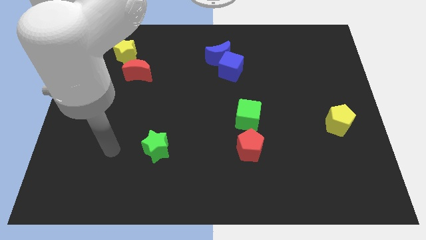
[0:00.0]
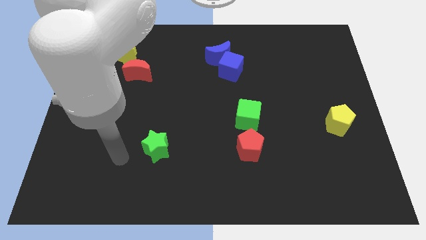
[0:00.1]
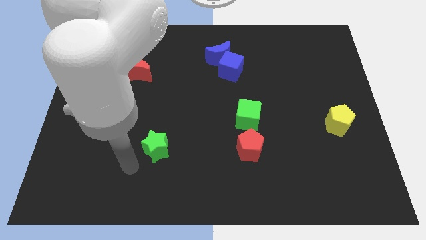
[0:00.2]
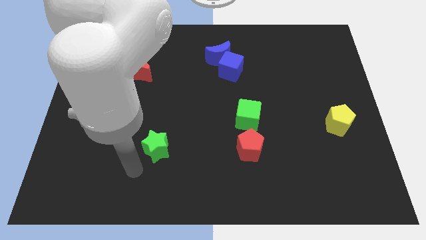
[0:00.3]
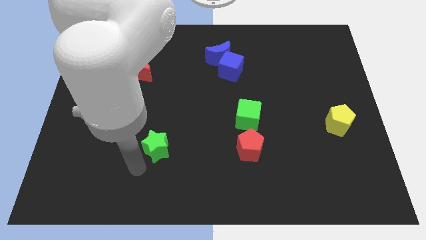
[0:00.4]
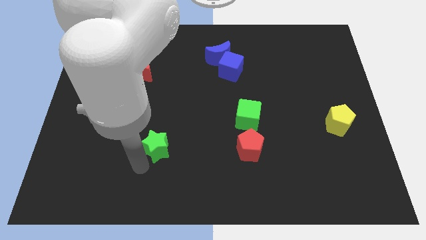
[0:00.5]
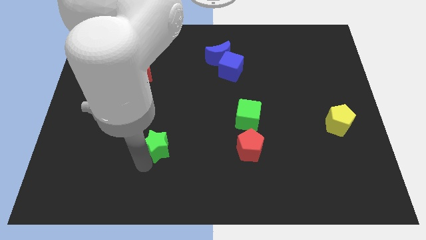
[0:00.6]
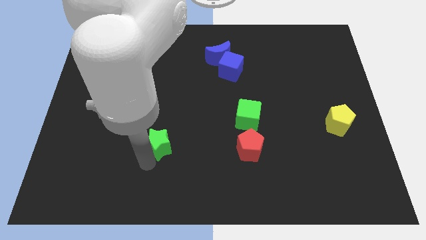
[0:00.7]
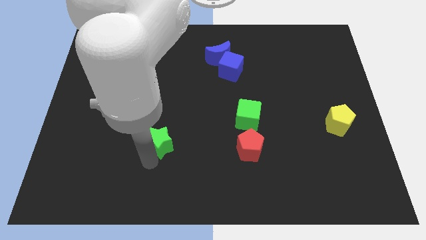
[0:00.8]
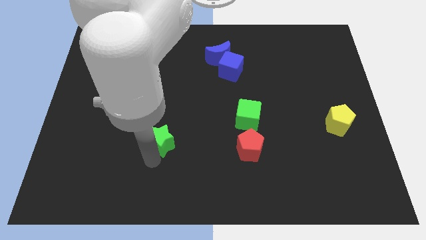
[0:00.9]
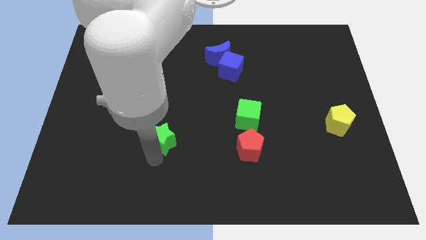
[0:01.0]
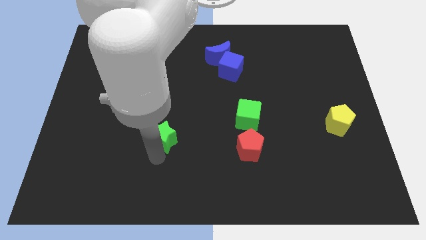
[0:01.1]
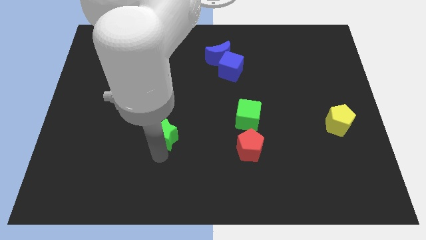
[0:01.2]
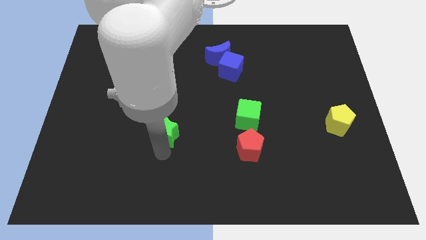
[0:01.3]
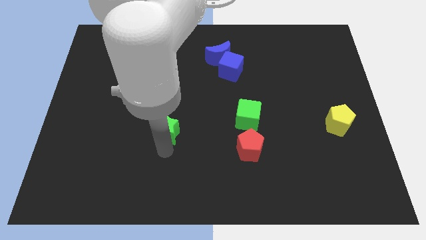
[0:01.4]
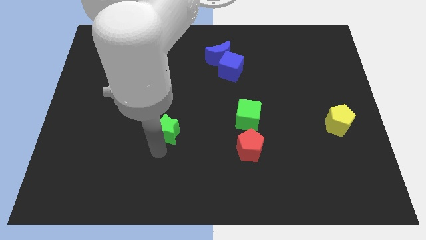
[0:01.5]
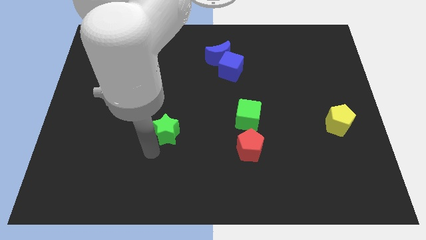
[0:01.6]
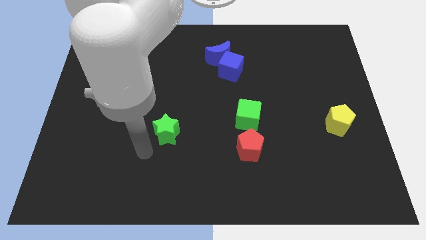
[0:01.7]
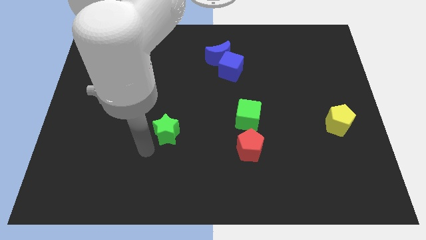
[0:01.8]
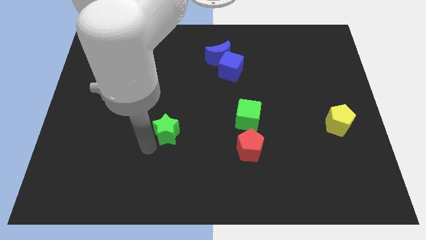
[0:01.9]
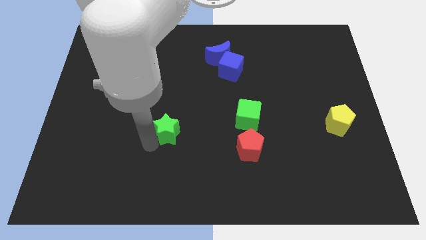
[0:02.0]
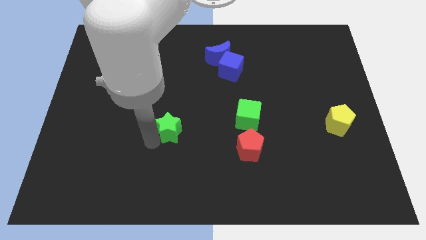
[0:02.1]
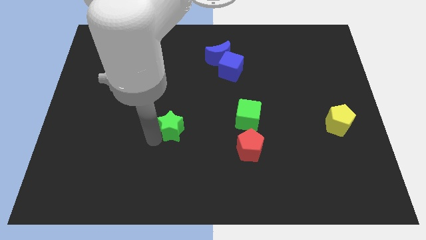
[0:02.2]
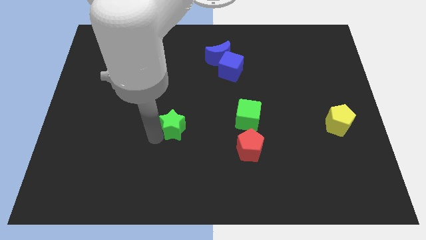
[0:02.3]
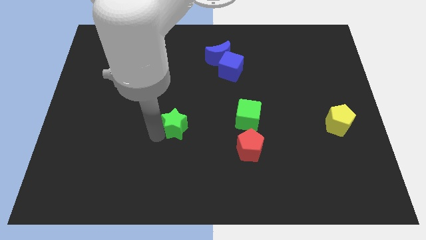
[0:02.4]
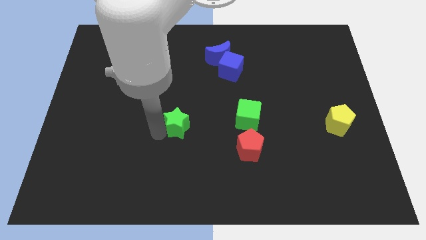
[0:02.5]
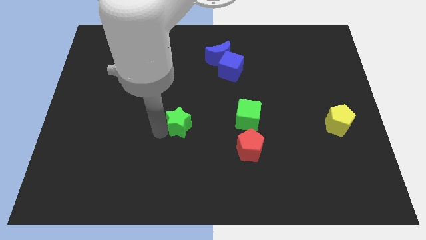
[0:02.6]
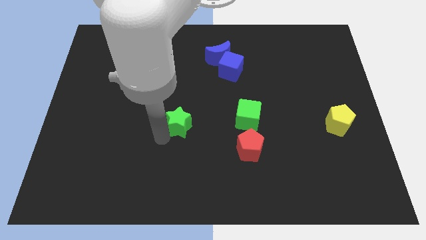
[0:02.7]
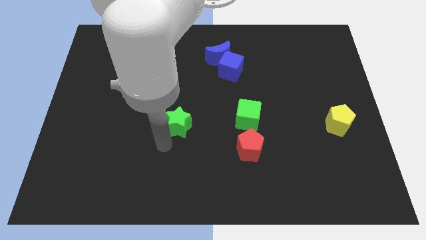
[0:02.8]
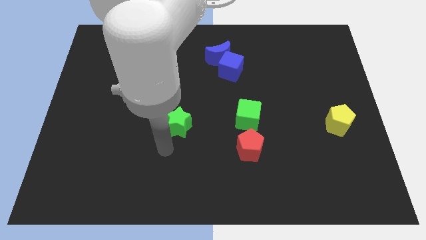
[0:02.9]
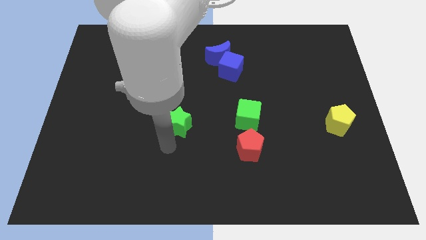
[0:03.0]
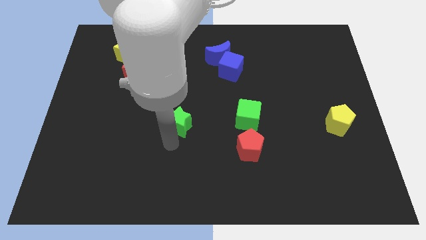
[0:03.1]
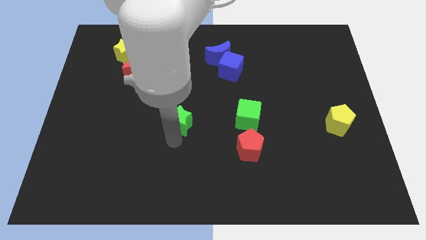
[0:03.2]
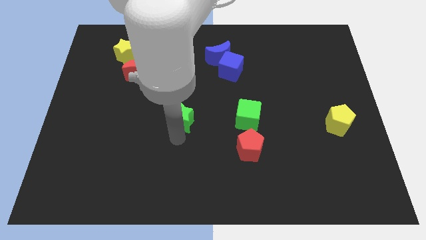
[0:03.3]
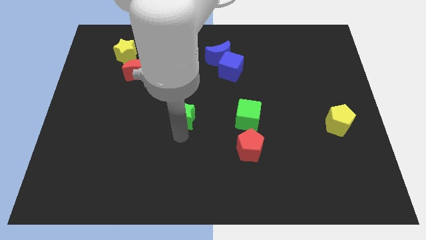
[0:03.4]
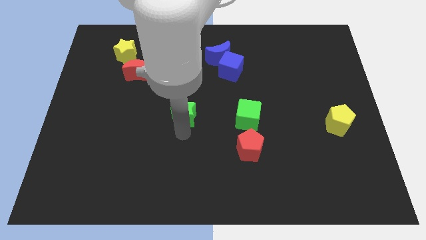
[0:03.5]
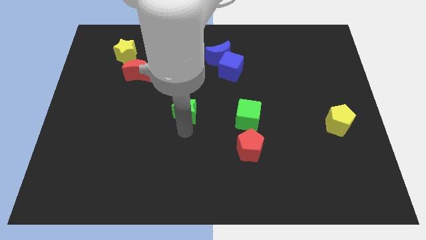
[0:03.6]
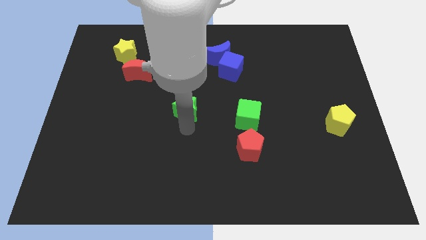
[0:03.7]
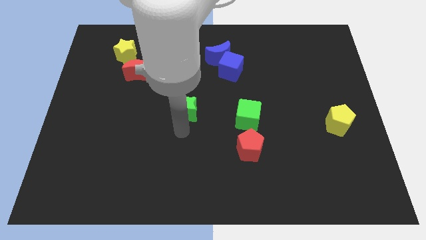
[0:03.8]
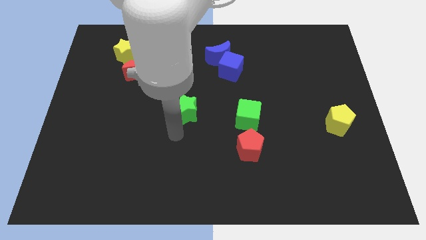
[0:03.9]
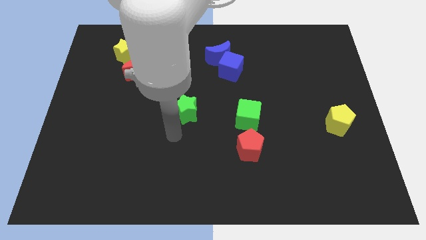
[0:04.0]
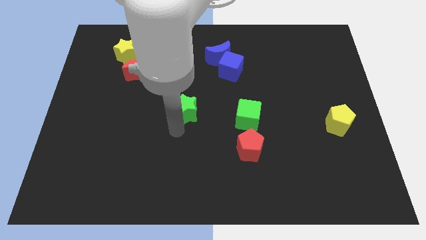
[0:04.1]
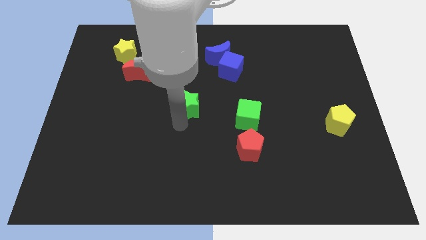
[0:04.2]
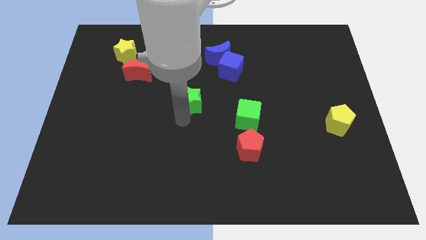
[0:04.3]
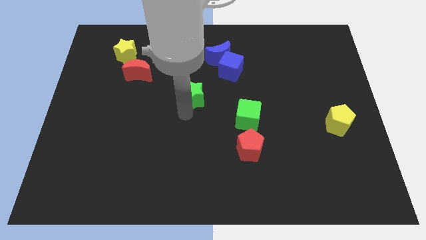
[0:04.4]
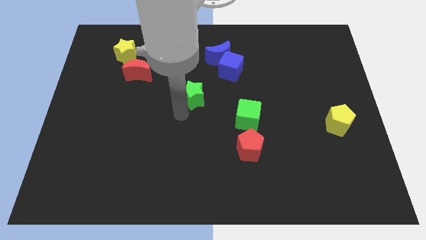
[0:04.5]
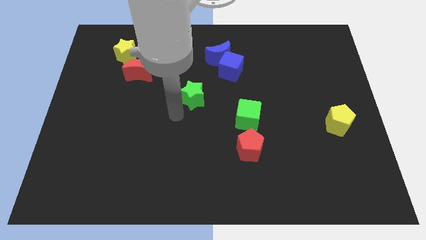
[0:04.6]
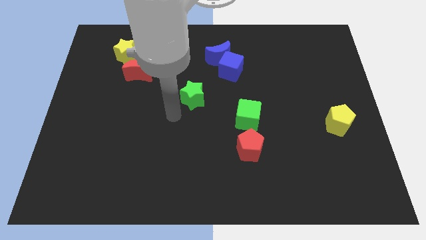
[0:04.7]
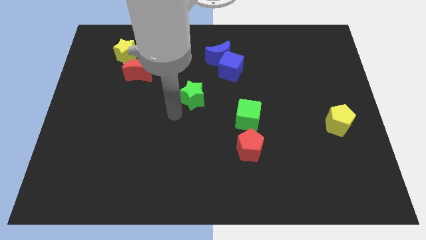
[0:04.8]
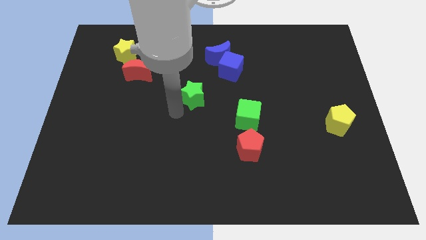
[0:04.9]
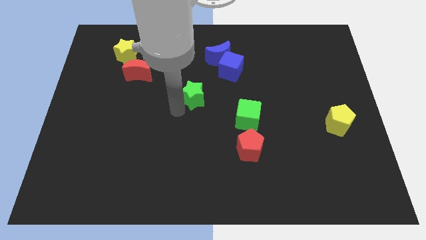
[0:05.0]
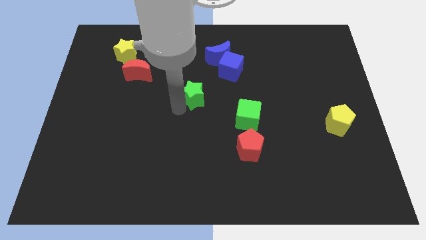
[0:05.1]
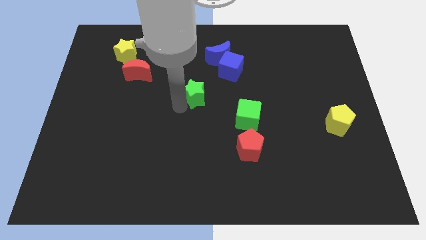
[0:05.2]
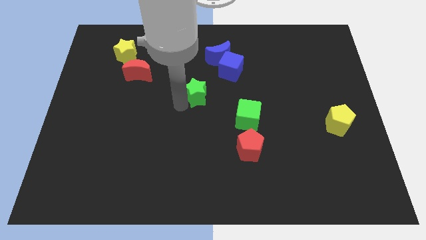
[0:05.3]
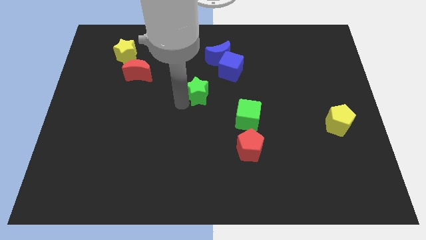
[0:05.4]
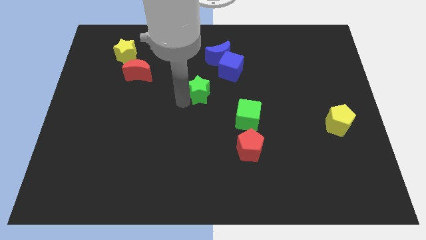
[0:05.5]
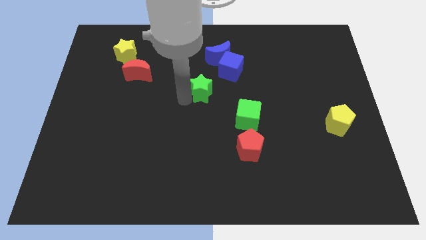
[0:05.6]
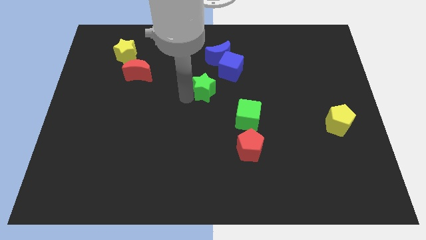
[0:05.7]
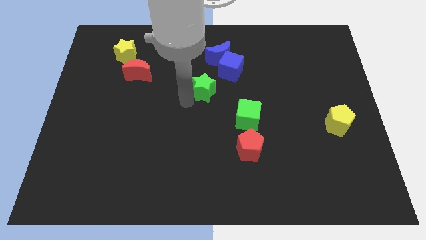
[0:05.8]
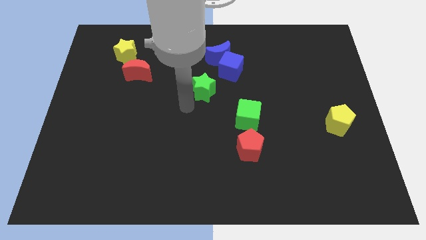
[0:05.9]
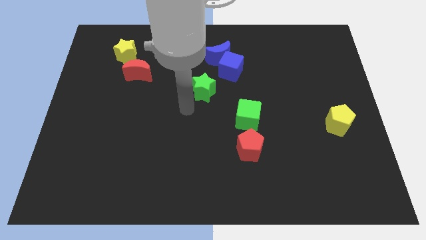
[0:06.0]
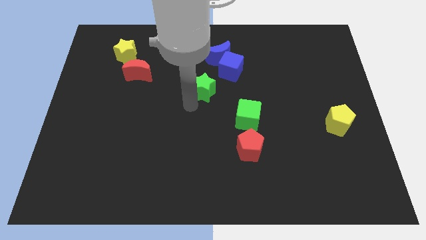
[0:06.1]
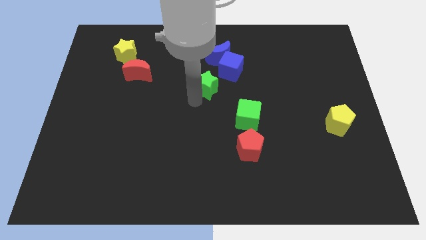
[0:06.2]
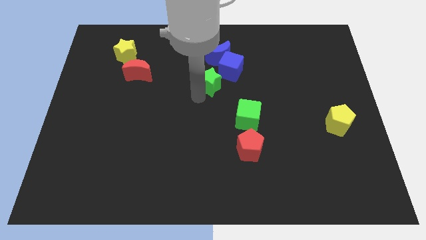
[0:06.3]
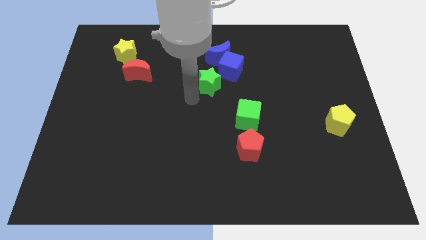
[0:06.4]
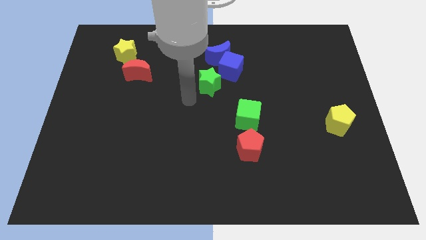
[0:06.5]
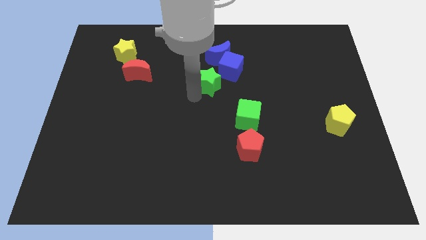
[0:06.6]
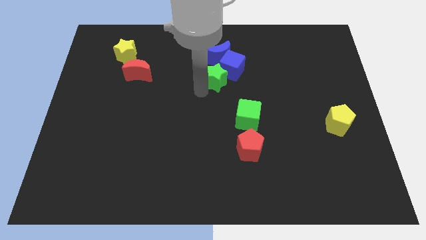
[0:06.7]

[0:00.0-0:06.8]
move the green star close to the blue cube

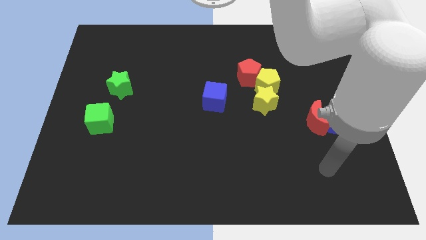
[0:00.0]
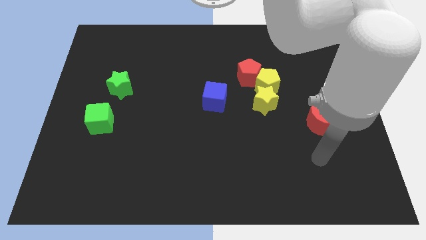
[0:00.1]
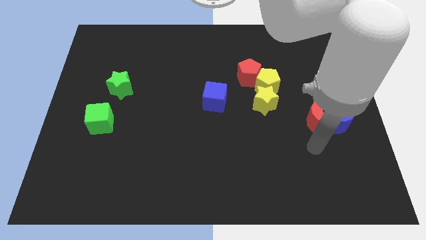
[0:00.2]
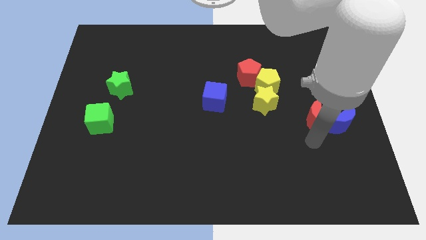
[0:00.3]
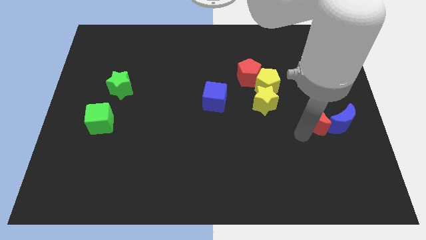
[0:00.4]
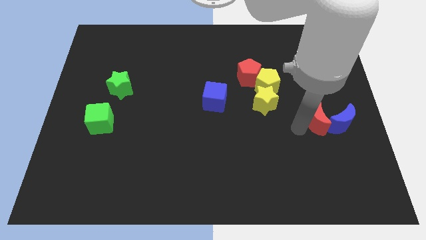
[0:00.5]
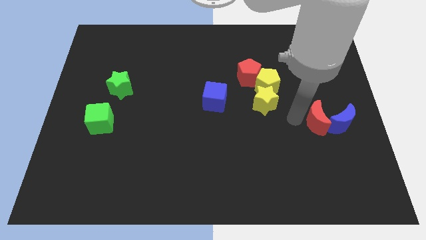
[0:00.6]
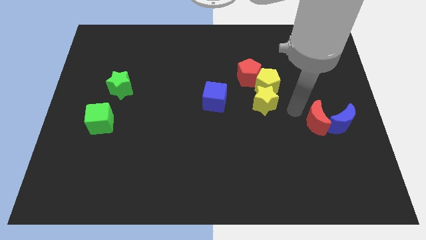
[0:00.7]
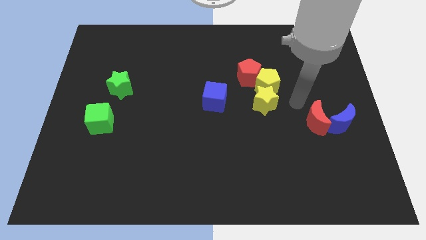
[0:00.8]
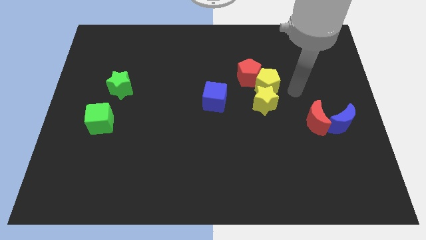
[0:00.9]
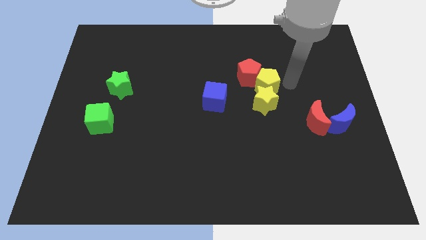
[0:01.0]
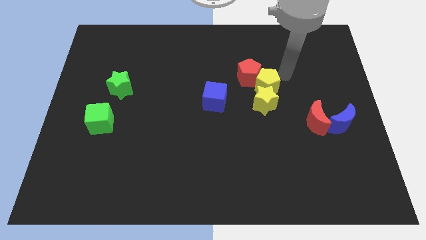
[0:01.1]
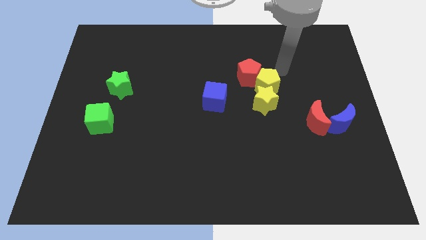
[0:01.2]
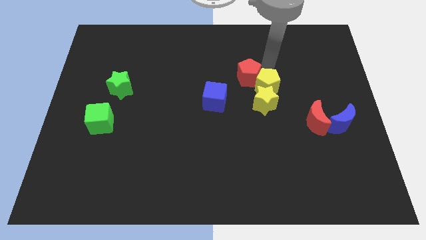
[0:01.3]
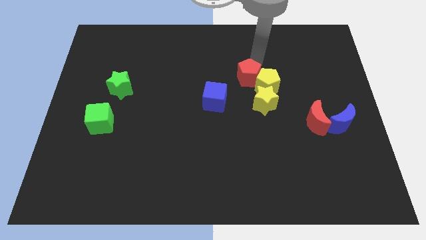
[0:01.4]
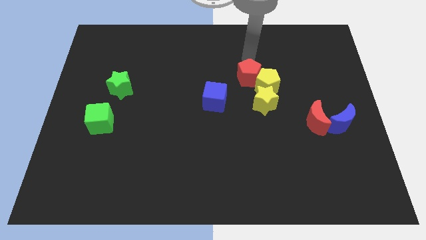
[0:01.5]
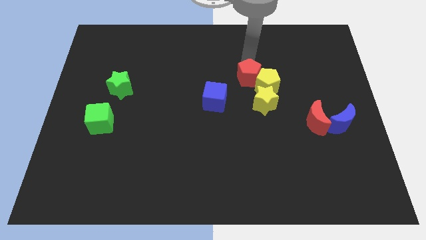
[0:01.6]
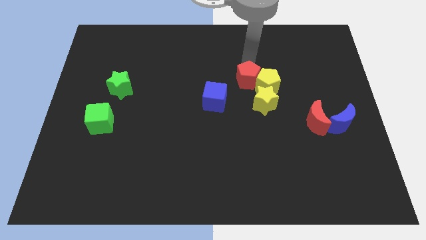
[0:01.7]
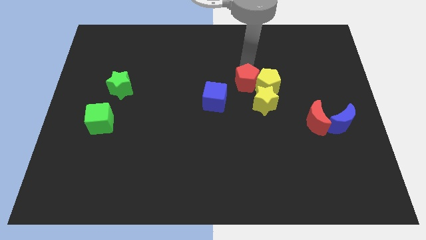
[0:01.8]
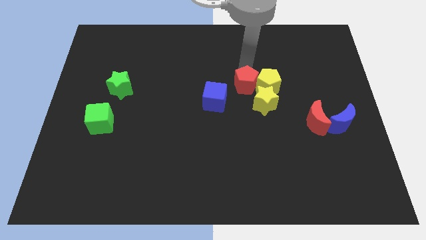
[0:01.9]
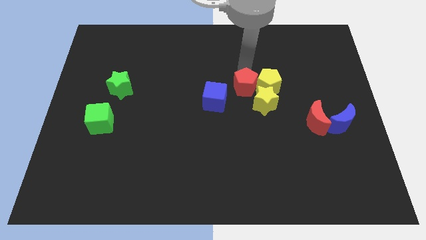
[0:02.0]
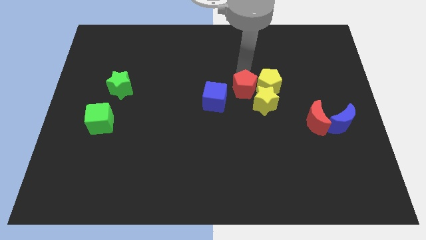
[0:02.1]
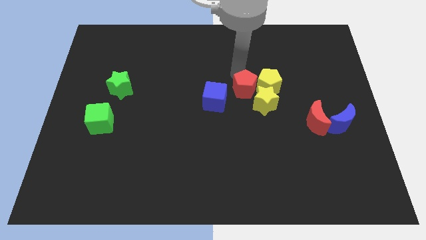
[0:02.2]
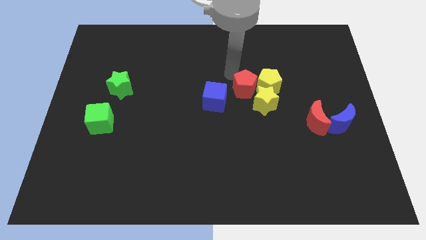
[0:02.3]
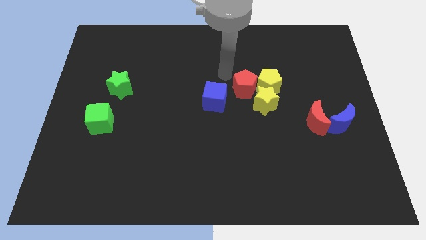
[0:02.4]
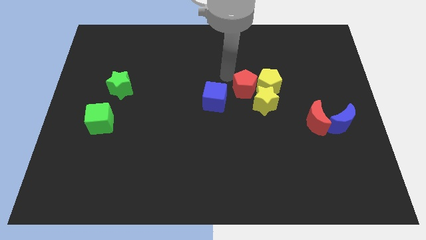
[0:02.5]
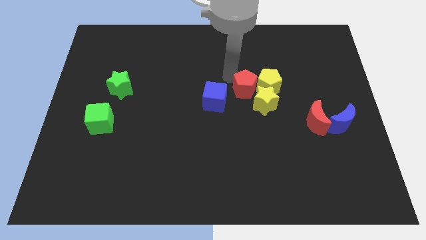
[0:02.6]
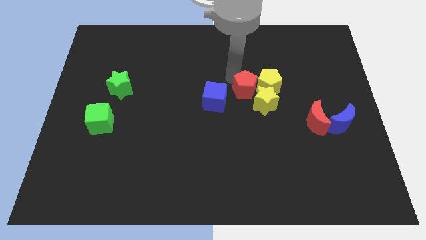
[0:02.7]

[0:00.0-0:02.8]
slide the red pentagon towards the yellow star
